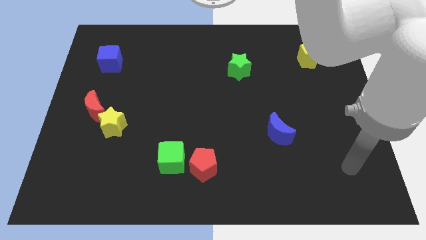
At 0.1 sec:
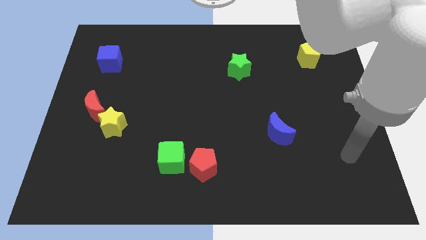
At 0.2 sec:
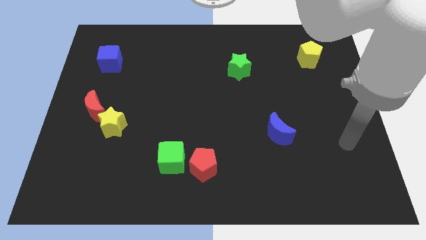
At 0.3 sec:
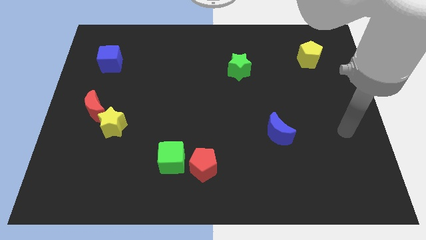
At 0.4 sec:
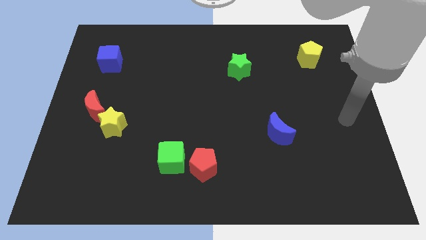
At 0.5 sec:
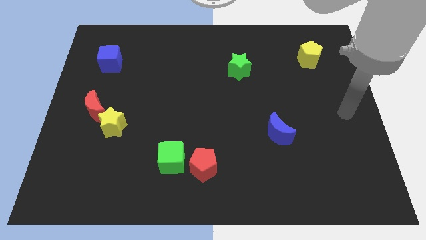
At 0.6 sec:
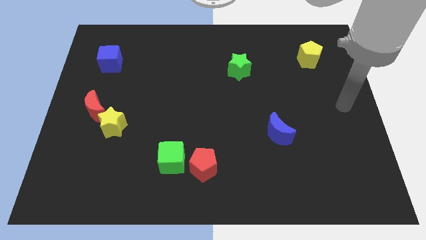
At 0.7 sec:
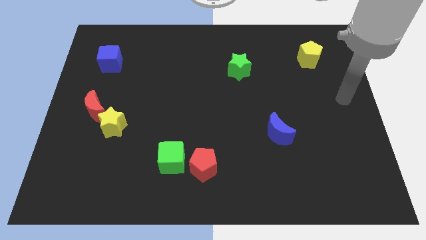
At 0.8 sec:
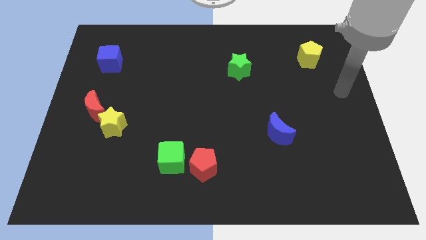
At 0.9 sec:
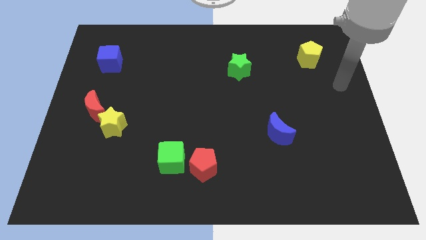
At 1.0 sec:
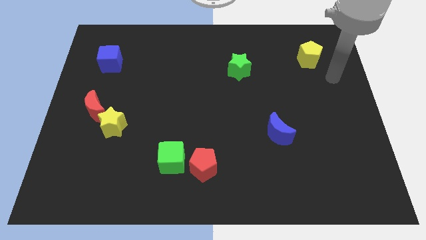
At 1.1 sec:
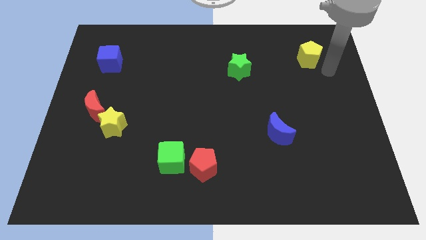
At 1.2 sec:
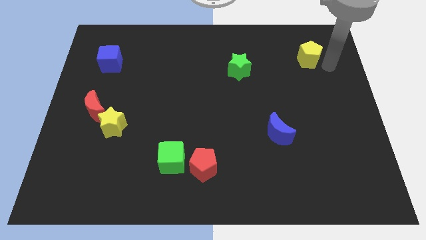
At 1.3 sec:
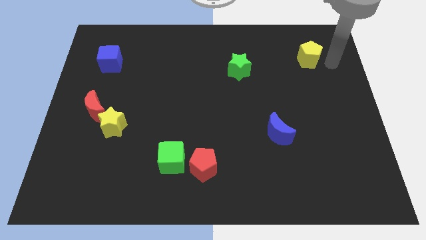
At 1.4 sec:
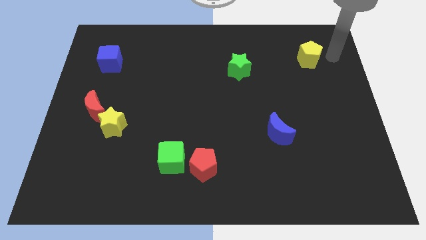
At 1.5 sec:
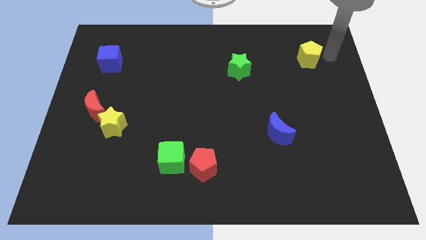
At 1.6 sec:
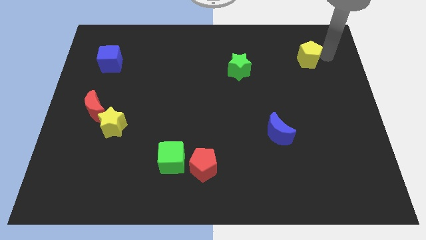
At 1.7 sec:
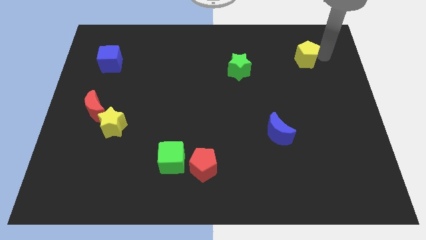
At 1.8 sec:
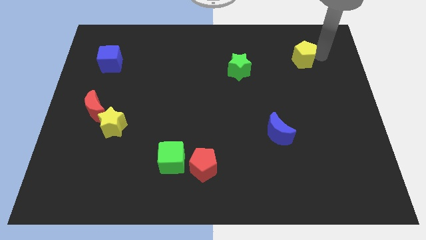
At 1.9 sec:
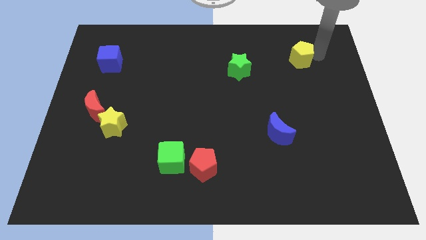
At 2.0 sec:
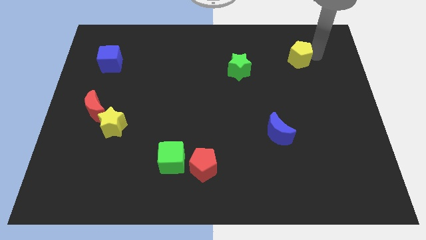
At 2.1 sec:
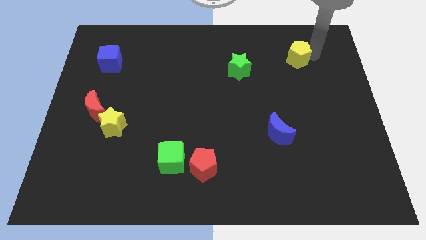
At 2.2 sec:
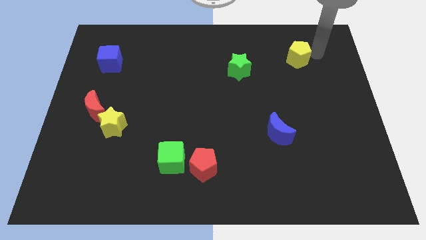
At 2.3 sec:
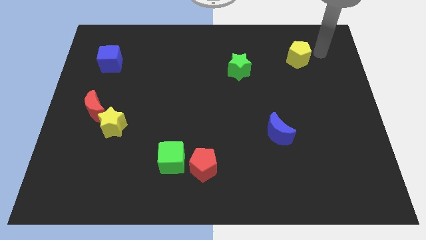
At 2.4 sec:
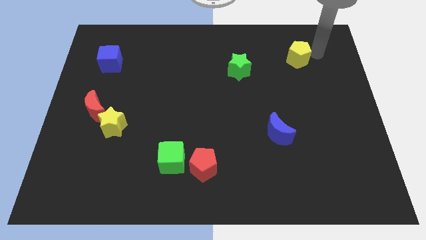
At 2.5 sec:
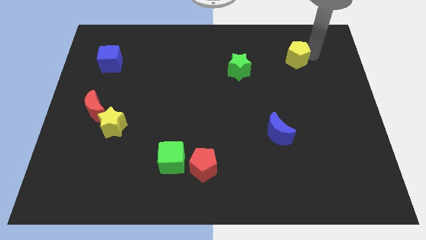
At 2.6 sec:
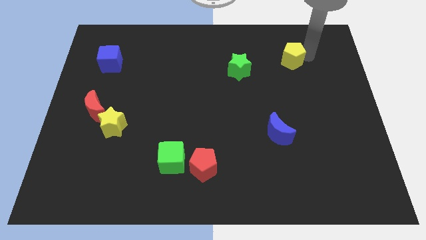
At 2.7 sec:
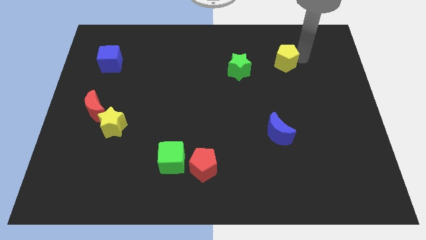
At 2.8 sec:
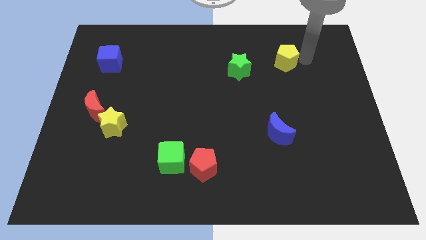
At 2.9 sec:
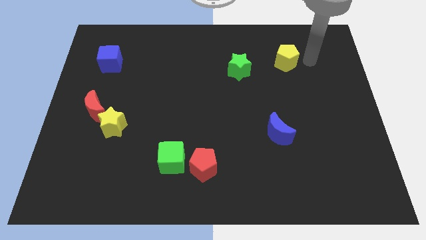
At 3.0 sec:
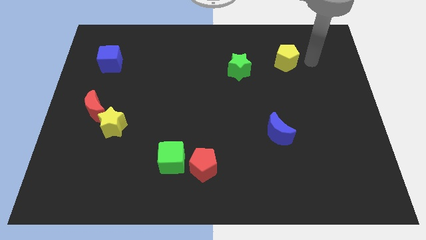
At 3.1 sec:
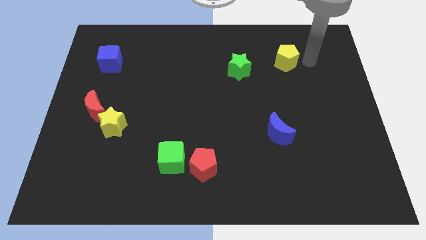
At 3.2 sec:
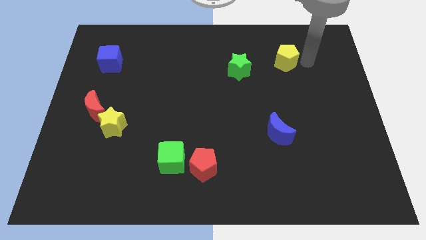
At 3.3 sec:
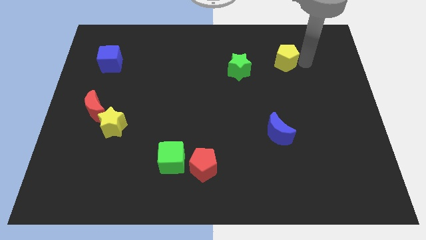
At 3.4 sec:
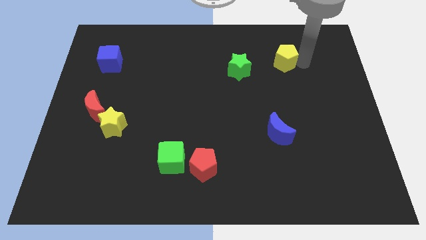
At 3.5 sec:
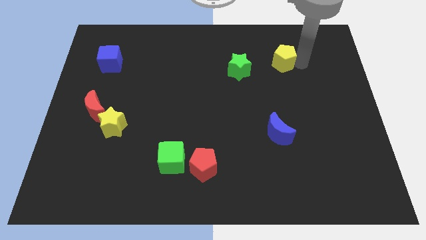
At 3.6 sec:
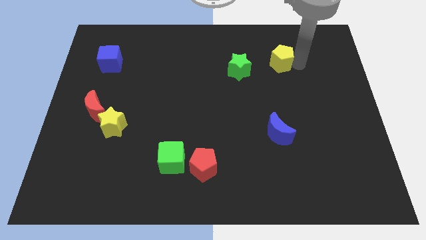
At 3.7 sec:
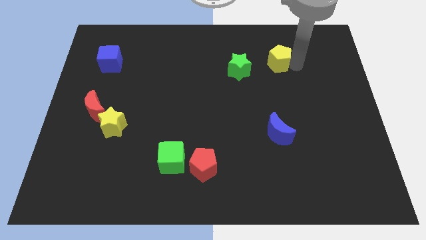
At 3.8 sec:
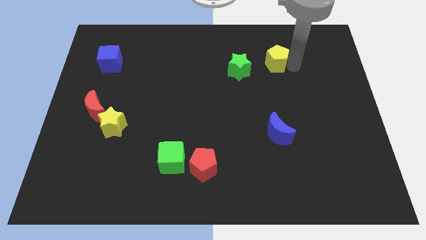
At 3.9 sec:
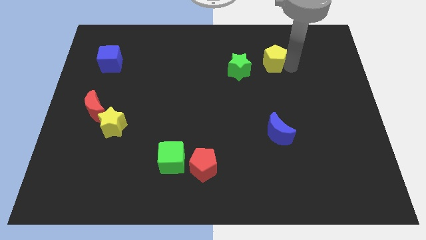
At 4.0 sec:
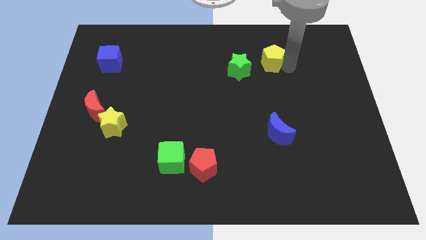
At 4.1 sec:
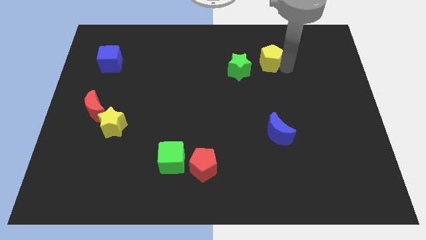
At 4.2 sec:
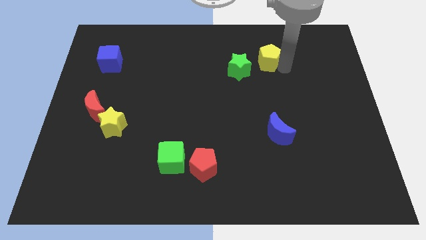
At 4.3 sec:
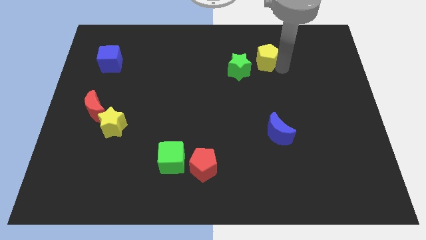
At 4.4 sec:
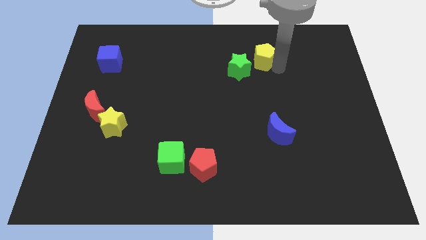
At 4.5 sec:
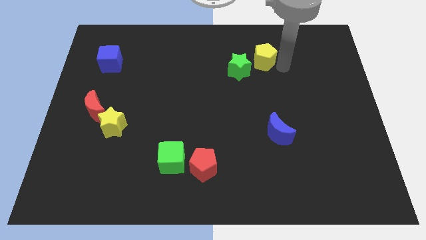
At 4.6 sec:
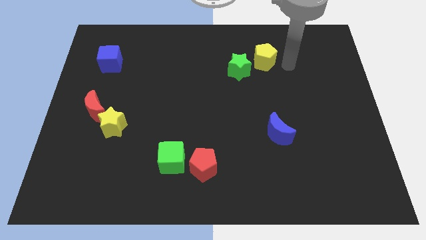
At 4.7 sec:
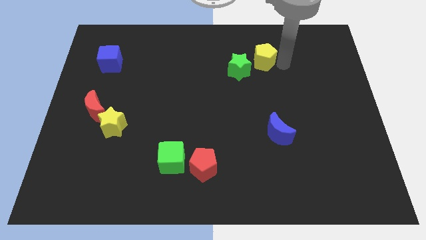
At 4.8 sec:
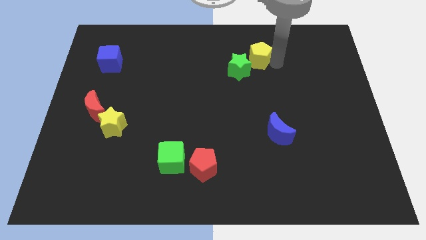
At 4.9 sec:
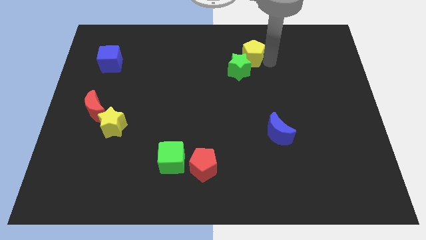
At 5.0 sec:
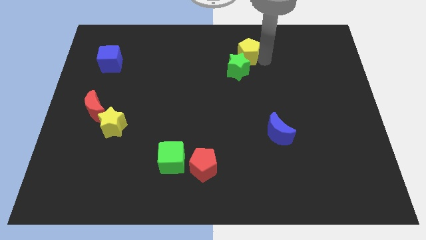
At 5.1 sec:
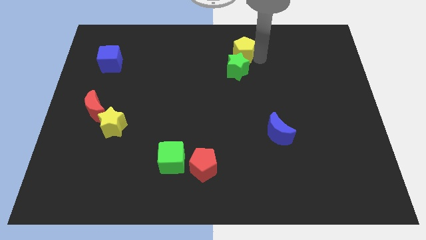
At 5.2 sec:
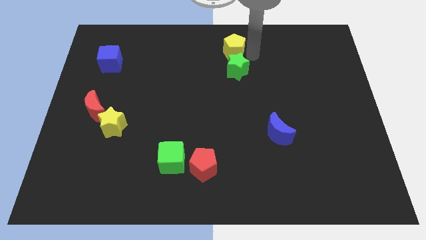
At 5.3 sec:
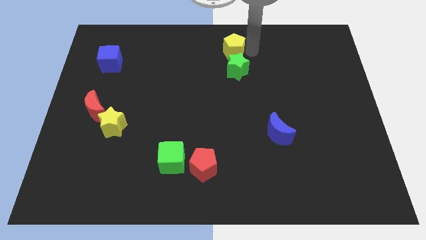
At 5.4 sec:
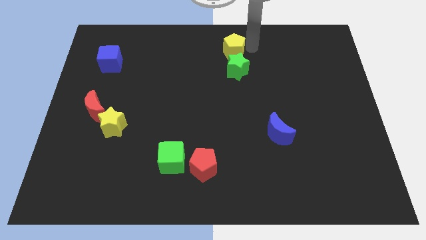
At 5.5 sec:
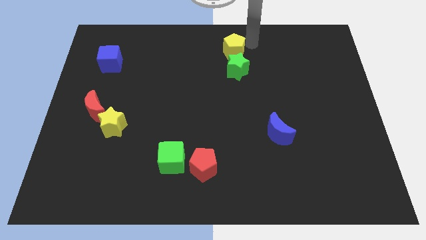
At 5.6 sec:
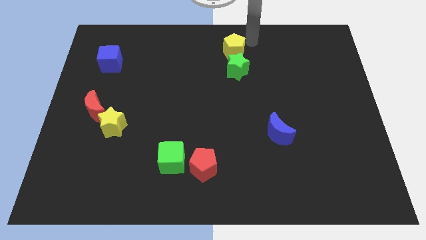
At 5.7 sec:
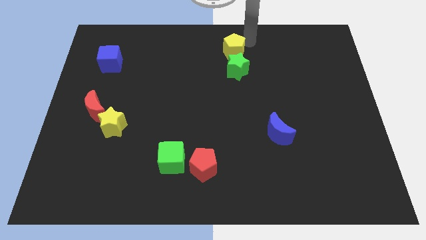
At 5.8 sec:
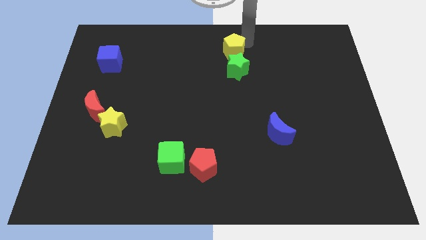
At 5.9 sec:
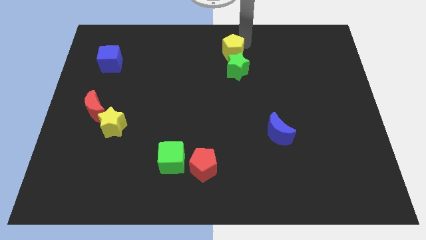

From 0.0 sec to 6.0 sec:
slide the yellow pentagon left

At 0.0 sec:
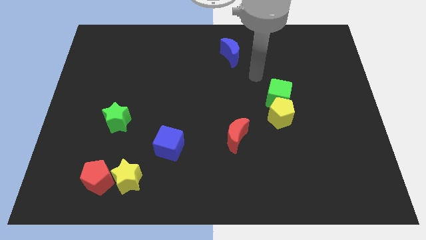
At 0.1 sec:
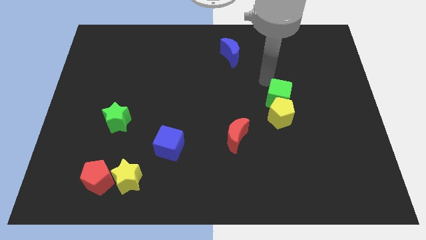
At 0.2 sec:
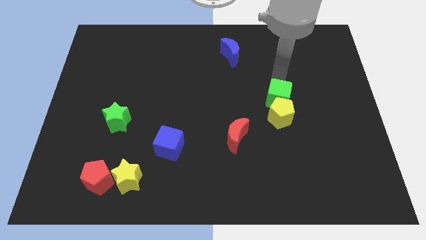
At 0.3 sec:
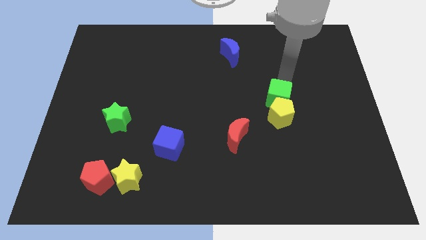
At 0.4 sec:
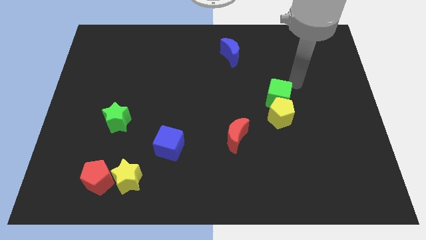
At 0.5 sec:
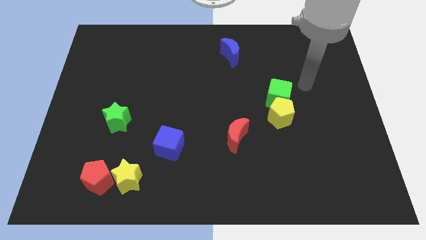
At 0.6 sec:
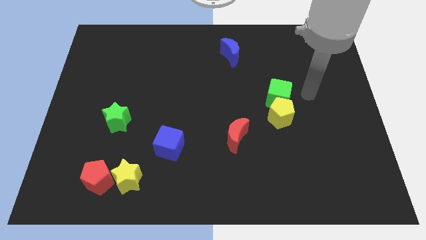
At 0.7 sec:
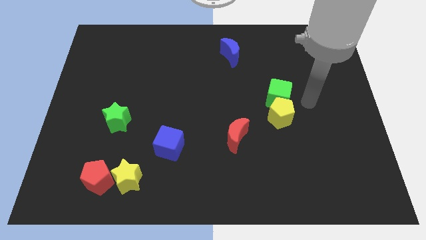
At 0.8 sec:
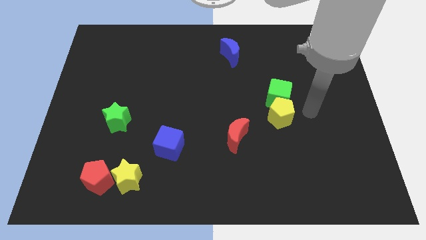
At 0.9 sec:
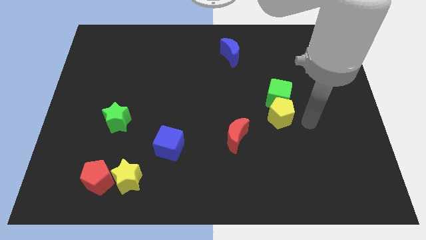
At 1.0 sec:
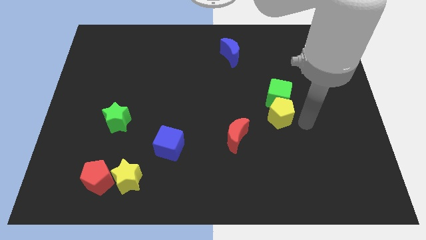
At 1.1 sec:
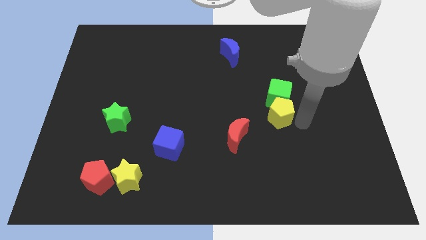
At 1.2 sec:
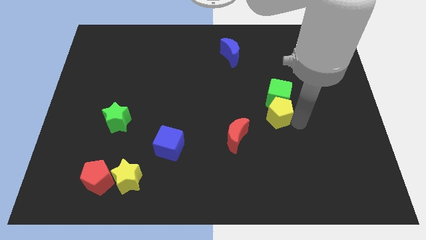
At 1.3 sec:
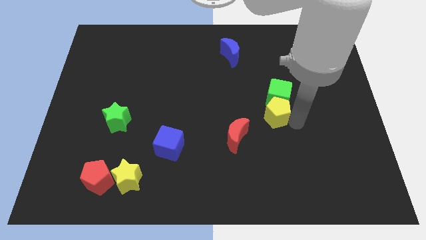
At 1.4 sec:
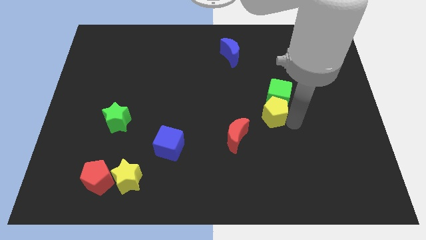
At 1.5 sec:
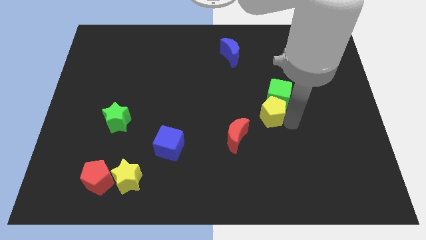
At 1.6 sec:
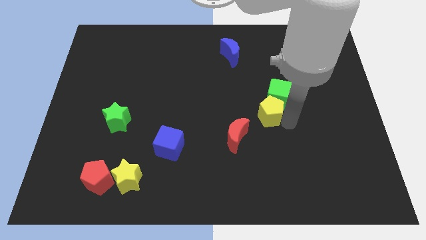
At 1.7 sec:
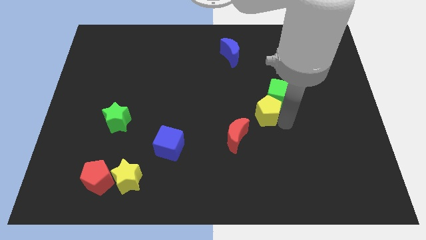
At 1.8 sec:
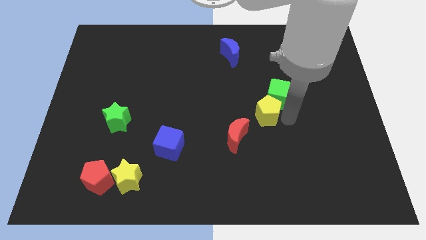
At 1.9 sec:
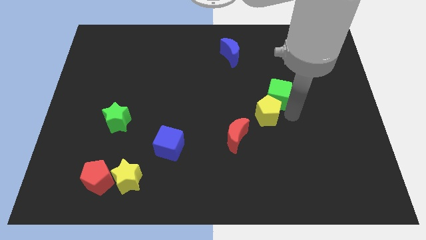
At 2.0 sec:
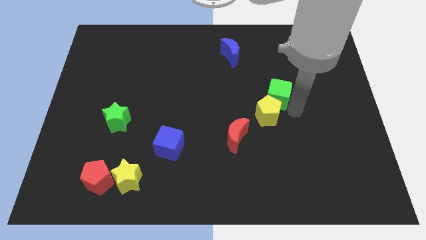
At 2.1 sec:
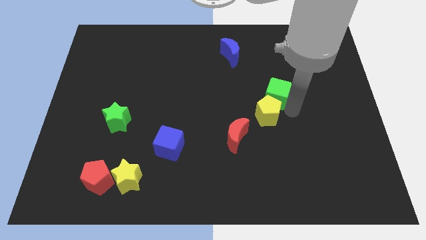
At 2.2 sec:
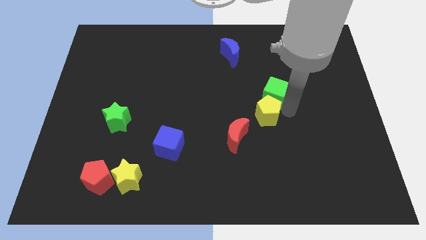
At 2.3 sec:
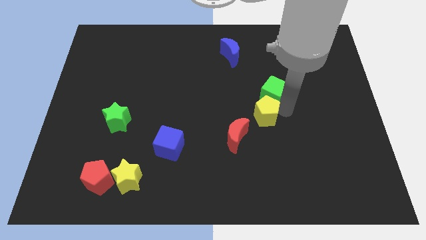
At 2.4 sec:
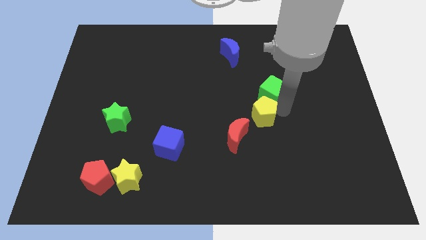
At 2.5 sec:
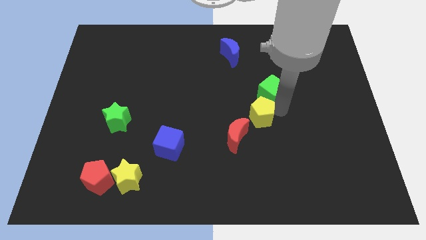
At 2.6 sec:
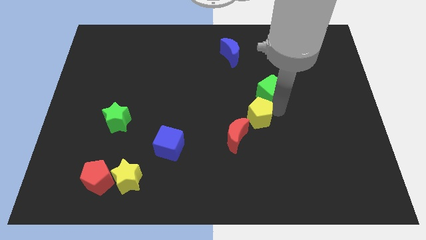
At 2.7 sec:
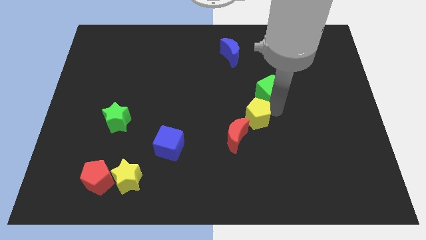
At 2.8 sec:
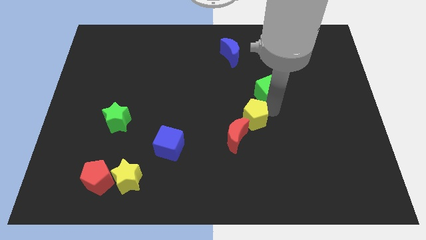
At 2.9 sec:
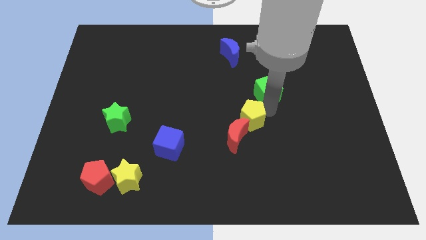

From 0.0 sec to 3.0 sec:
push the yellow pentagon left a bit
